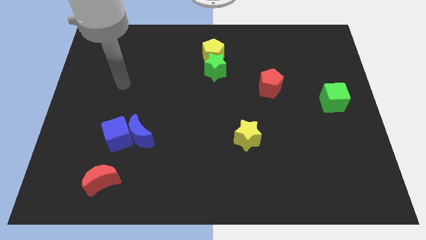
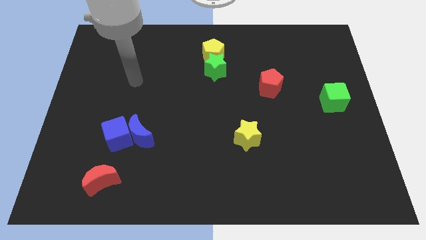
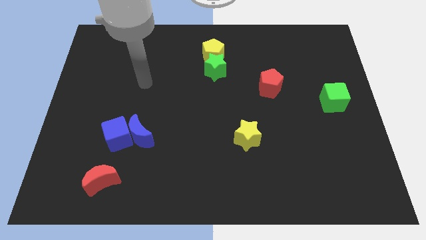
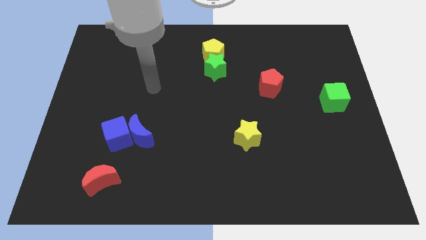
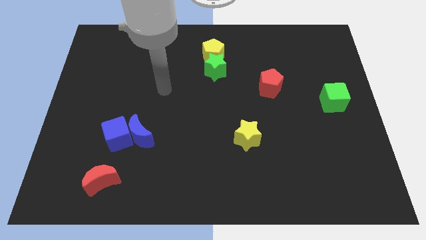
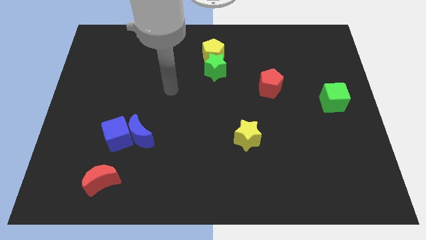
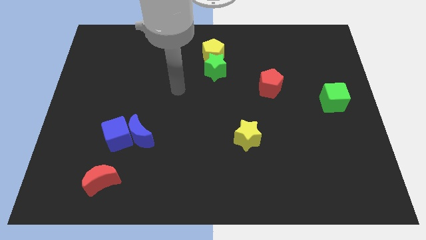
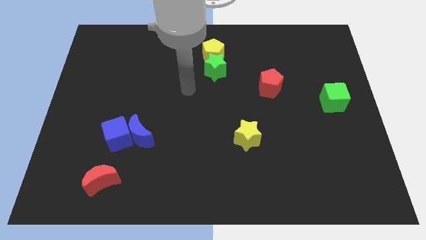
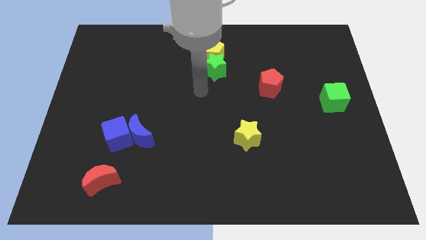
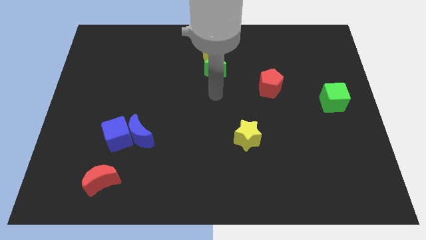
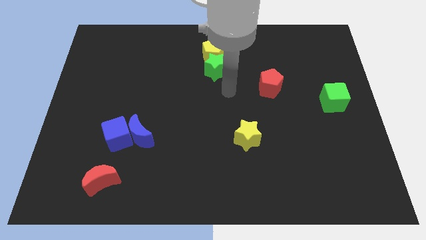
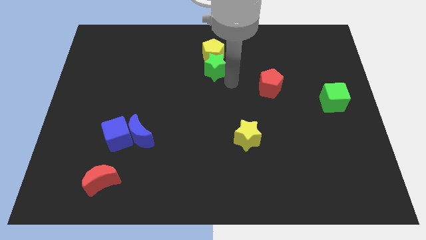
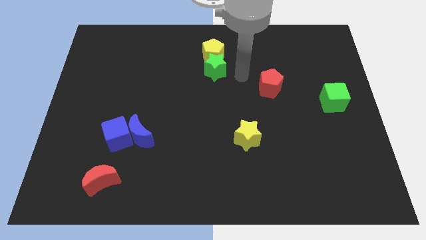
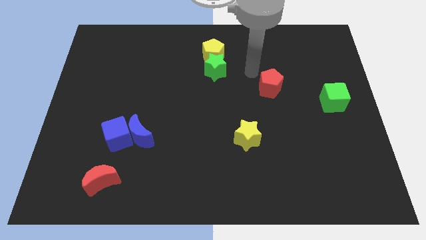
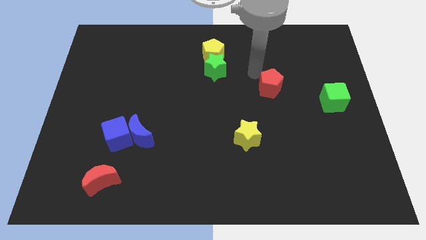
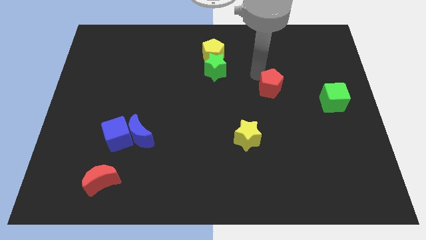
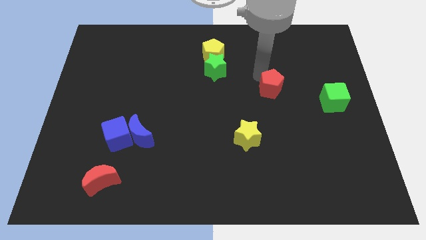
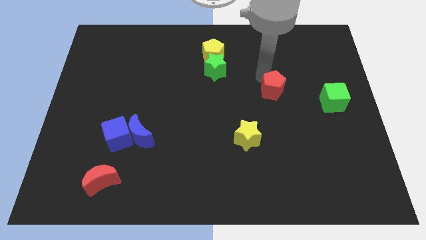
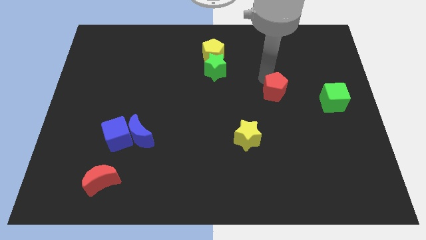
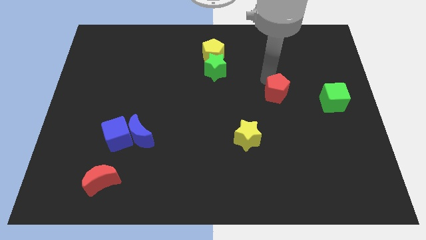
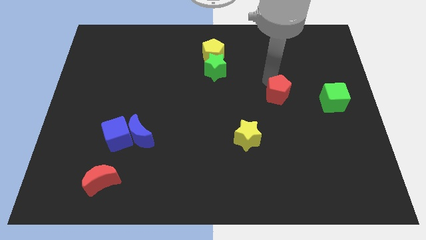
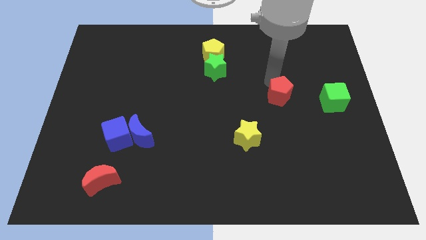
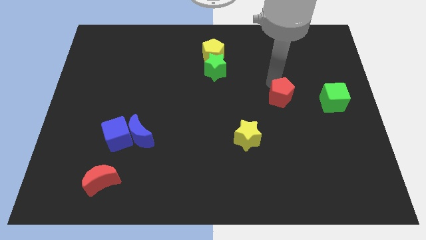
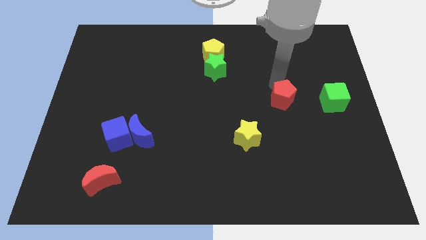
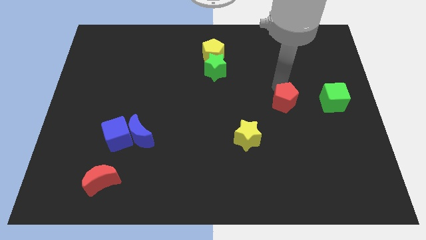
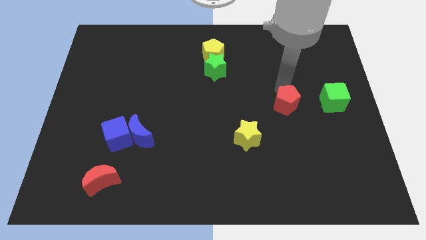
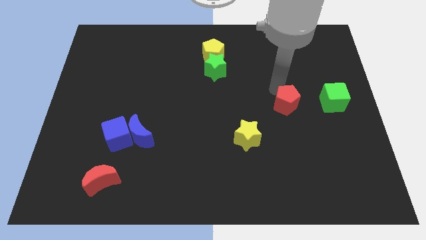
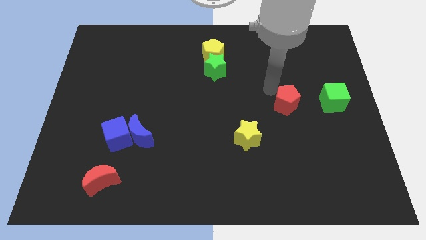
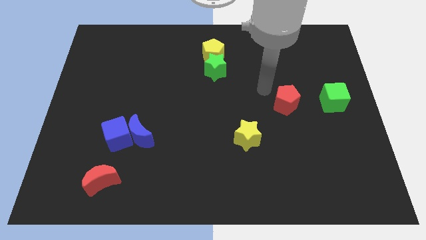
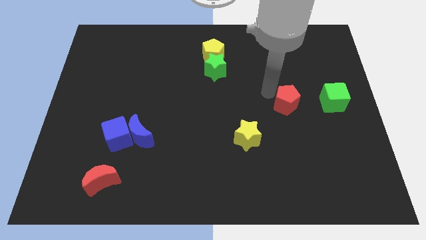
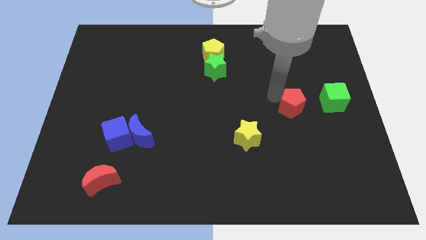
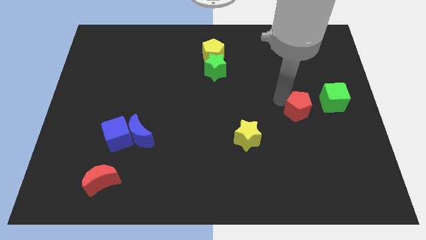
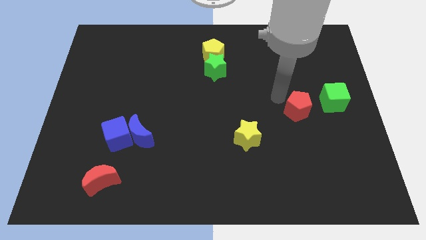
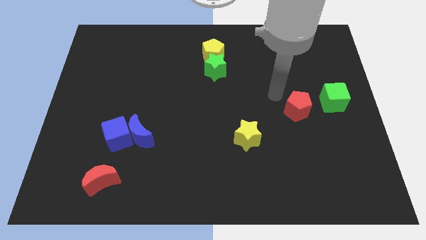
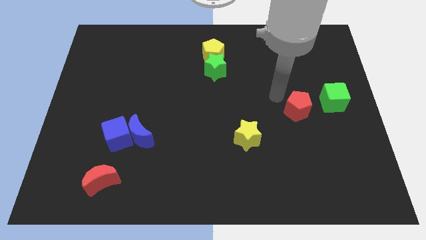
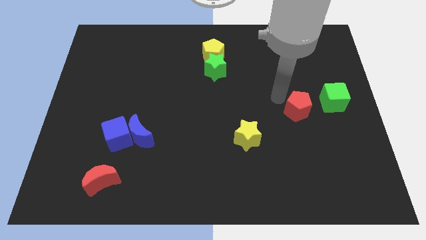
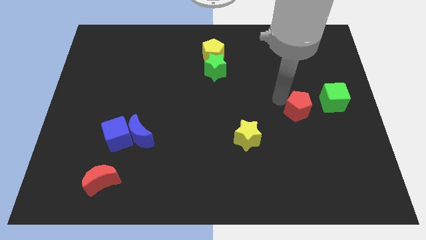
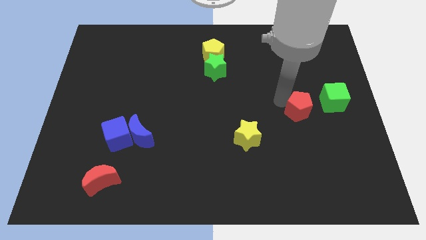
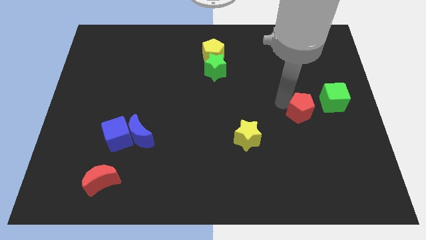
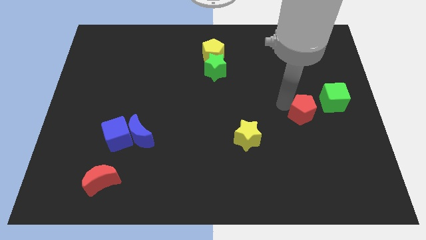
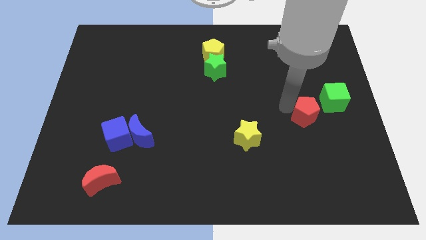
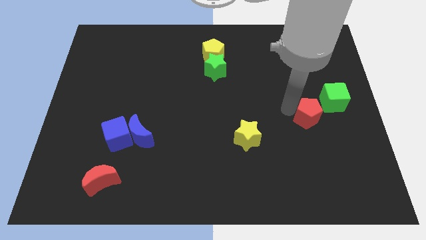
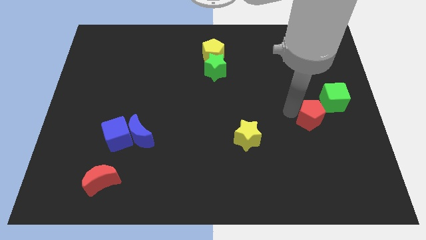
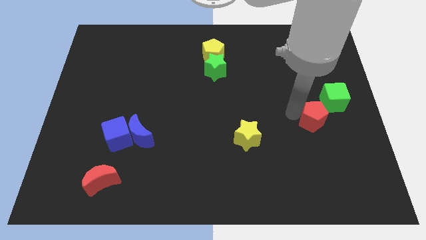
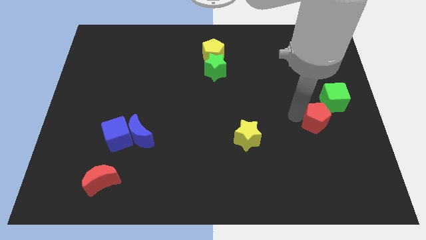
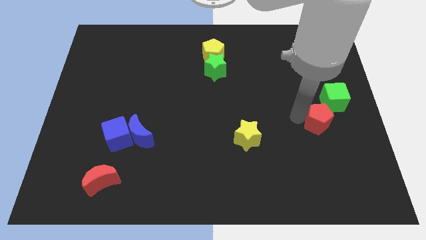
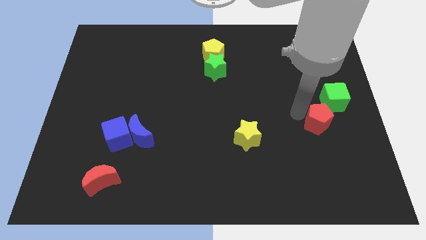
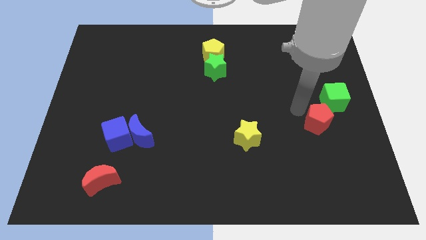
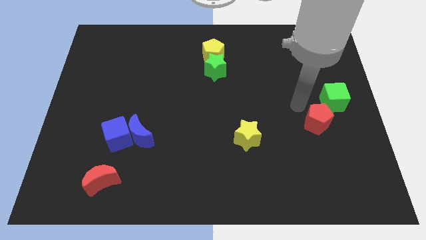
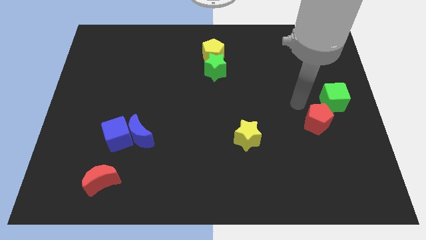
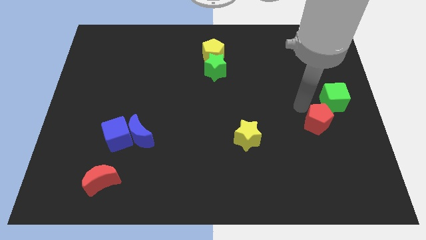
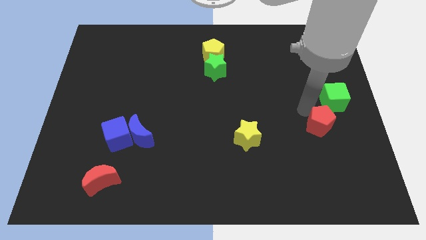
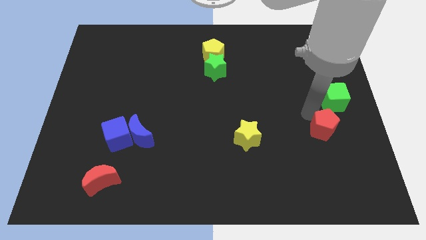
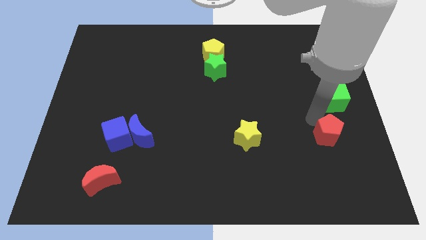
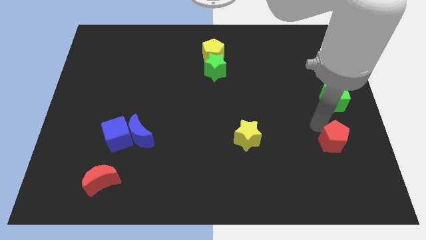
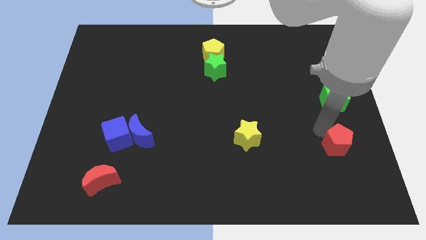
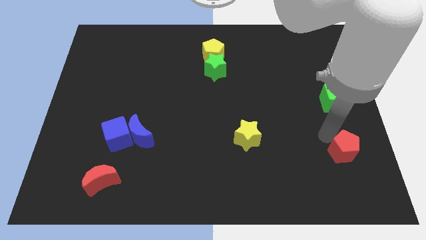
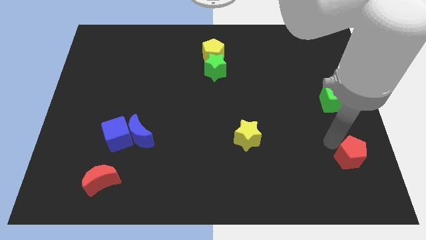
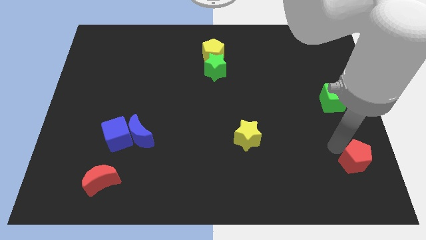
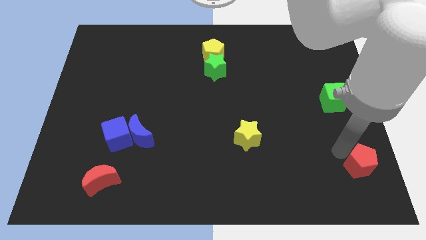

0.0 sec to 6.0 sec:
put the red pentagon to the bottom right

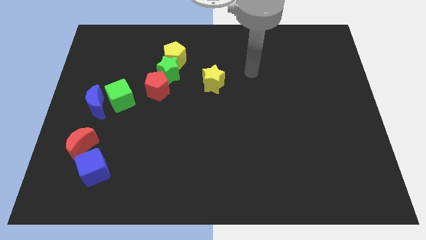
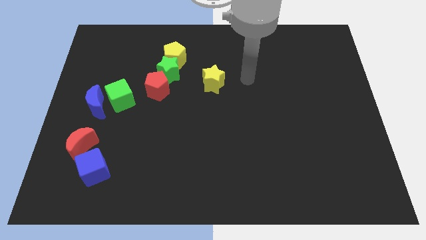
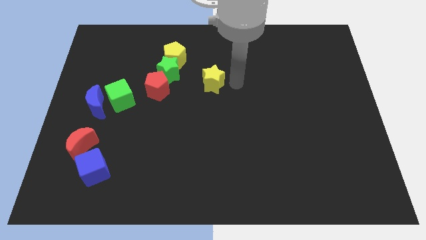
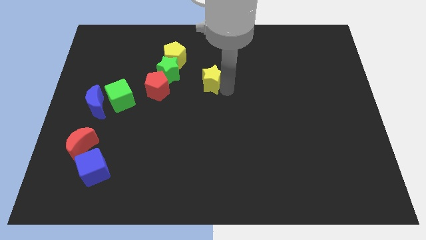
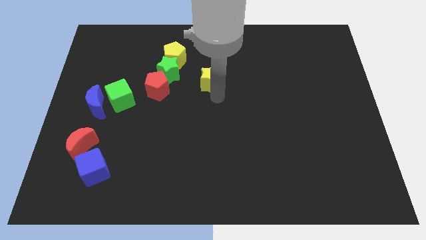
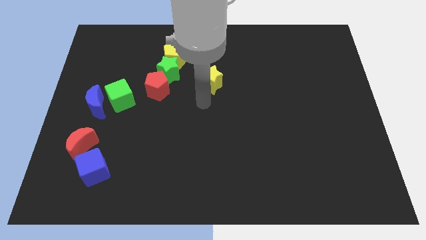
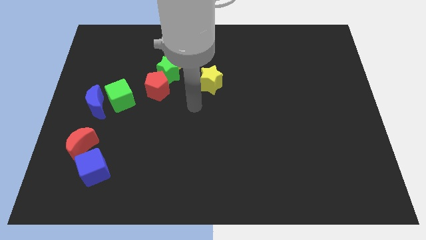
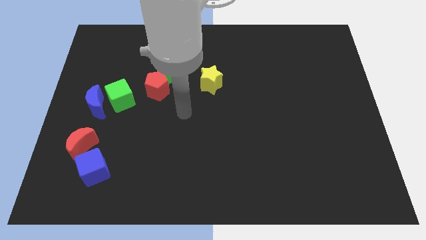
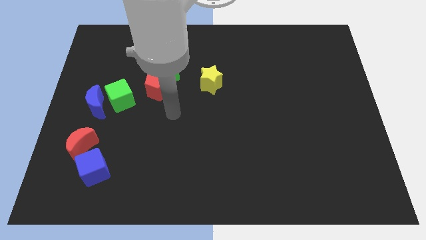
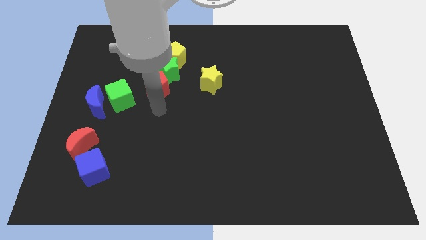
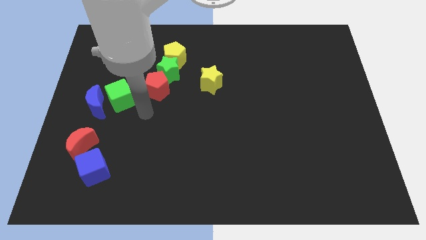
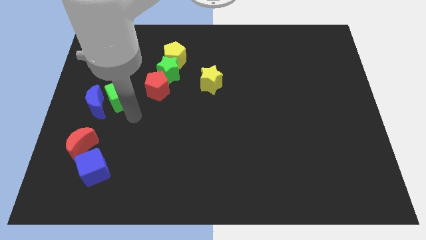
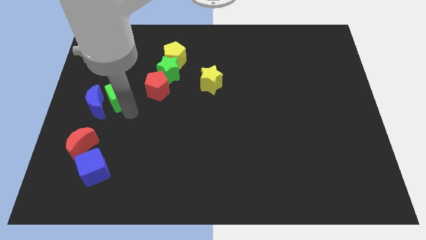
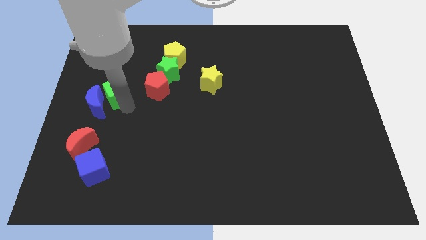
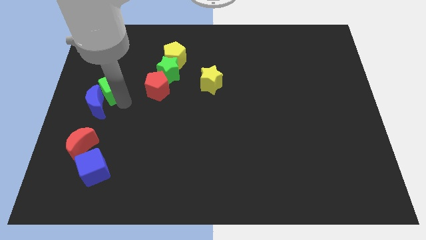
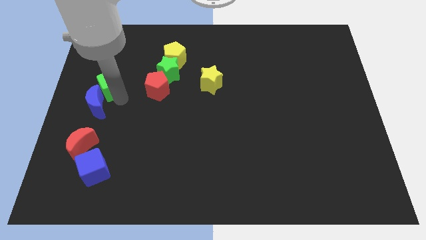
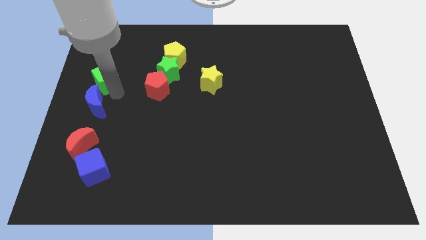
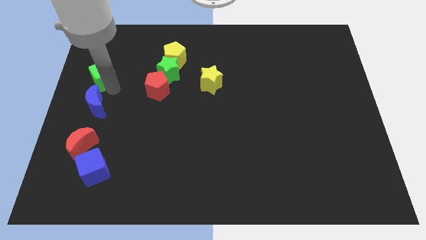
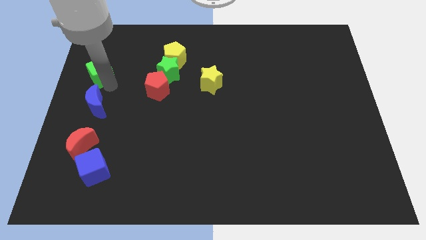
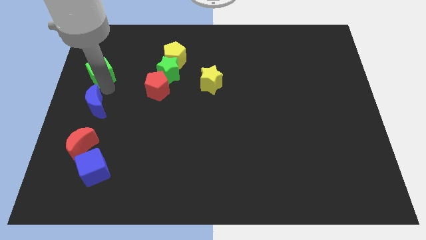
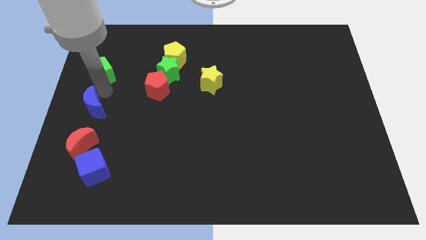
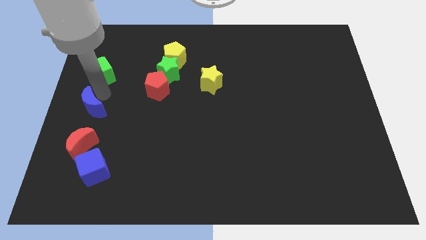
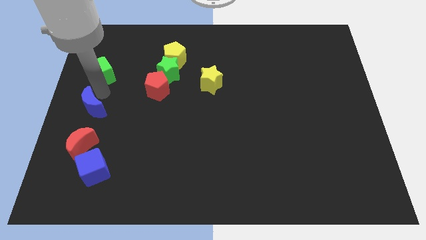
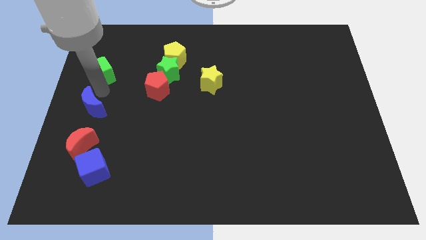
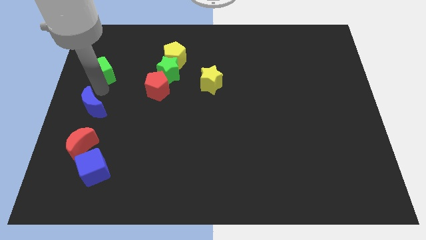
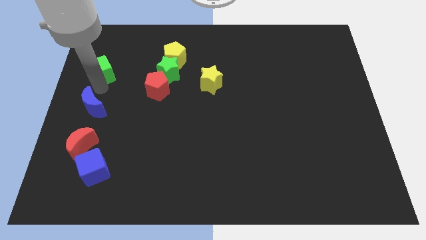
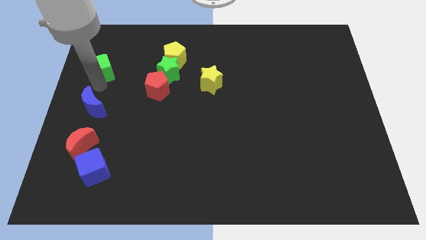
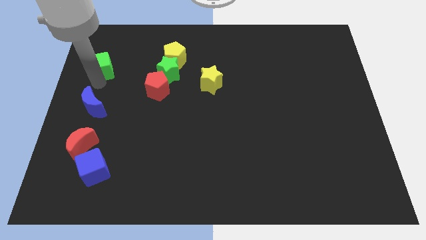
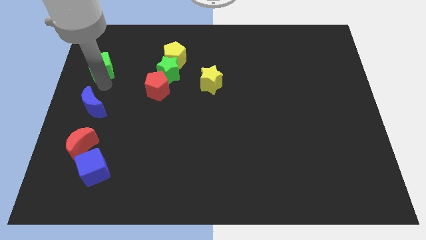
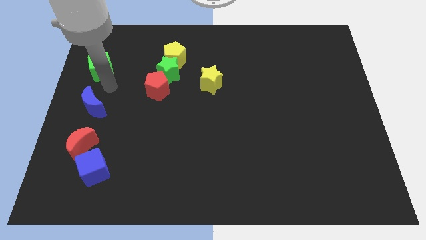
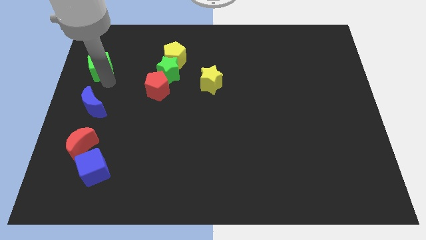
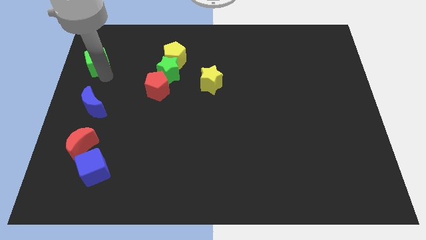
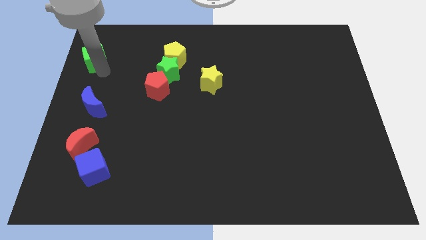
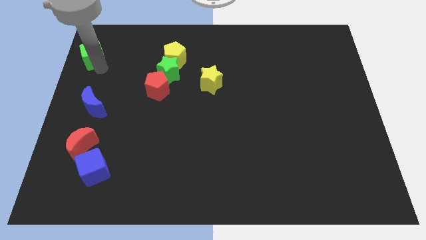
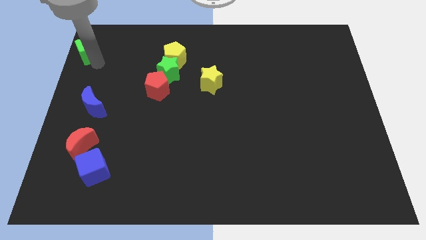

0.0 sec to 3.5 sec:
push the green cube to the top left
